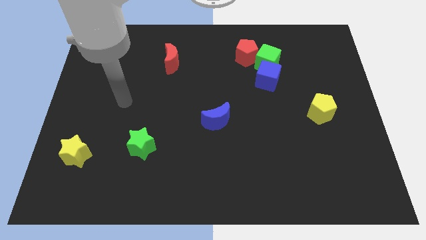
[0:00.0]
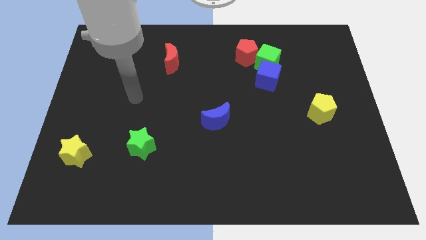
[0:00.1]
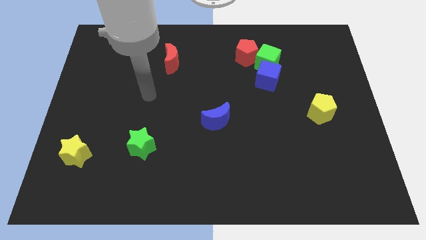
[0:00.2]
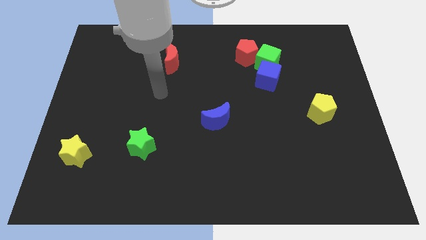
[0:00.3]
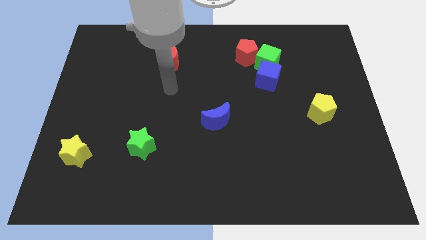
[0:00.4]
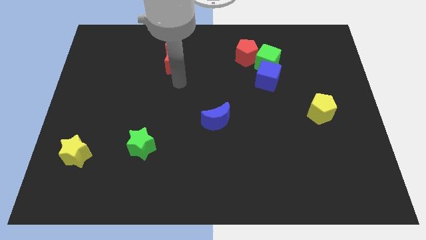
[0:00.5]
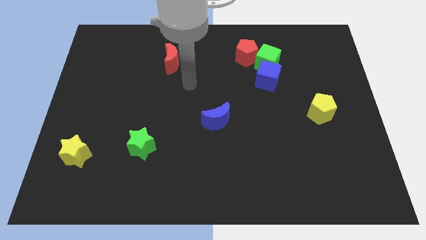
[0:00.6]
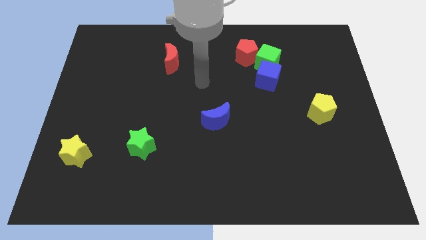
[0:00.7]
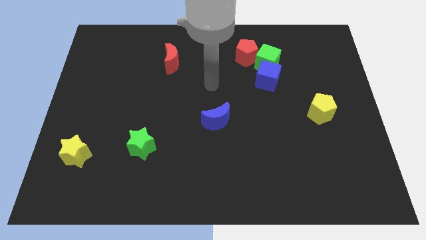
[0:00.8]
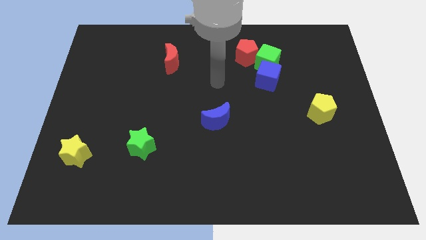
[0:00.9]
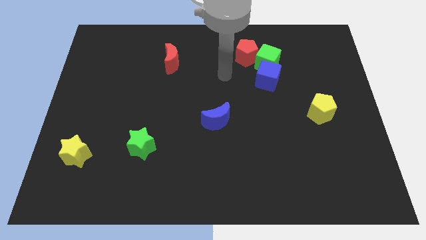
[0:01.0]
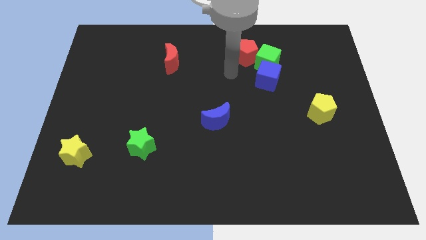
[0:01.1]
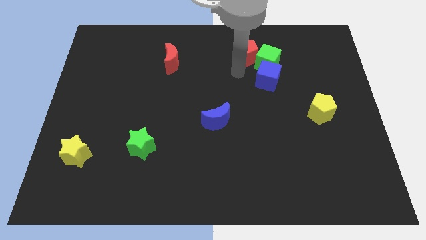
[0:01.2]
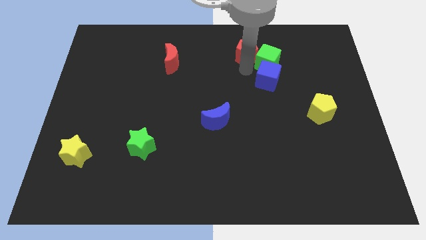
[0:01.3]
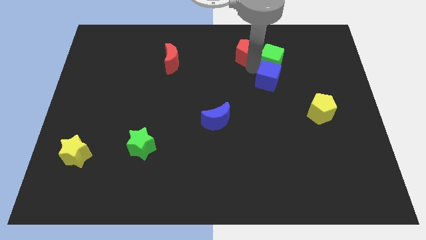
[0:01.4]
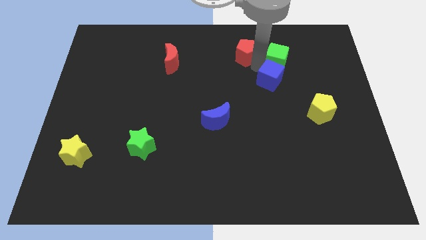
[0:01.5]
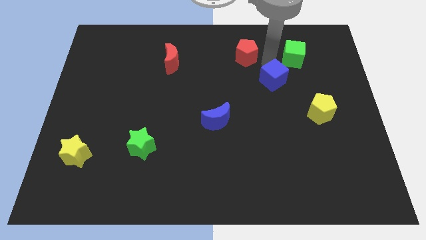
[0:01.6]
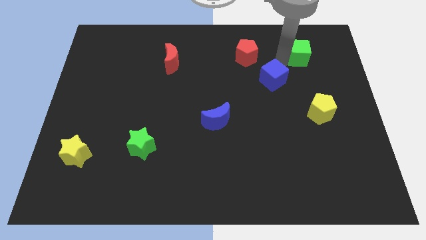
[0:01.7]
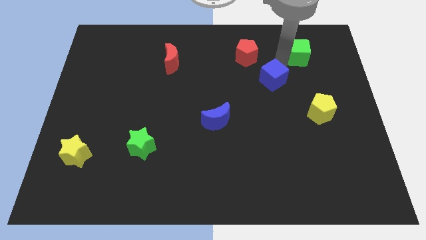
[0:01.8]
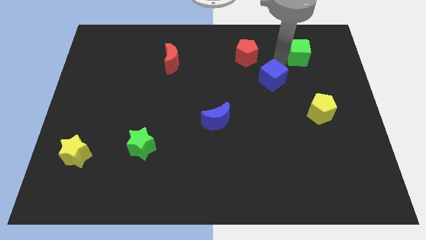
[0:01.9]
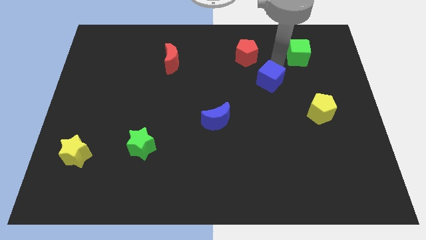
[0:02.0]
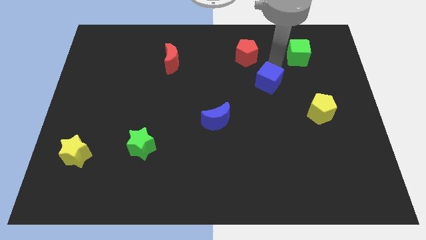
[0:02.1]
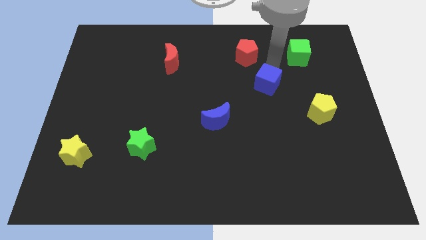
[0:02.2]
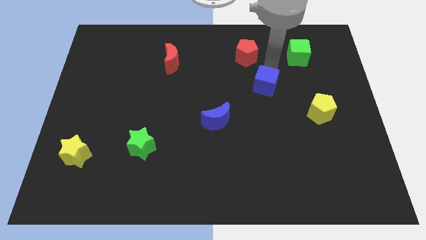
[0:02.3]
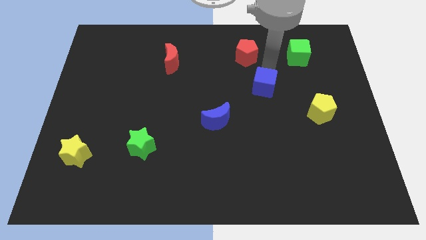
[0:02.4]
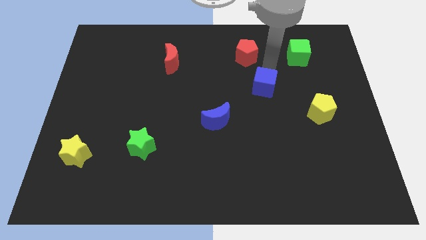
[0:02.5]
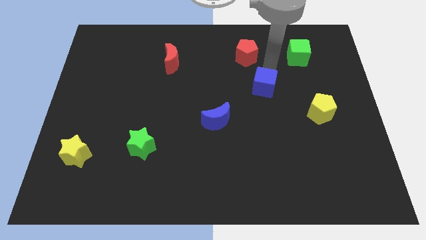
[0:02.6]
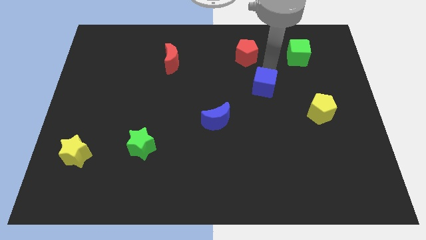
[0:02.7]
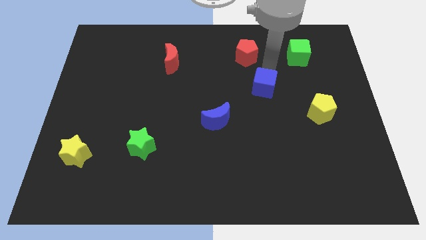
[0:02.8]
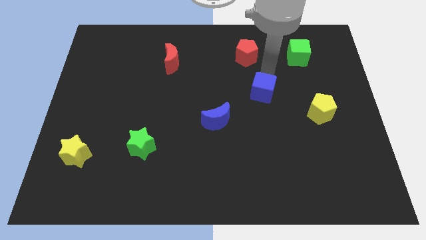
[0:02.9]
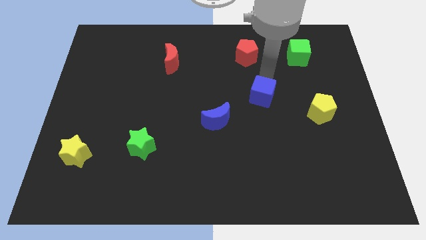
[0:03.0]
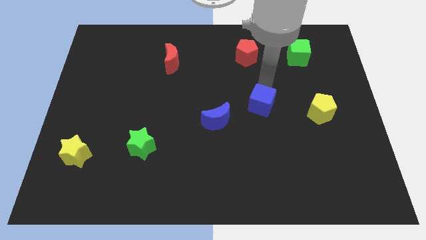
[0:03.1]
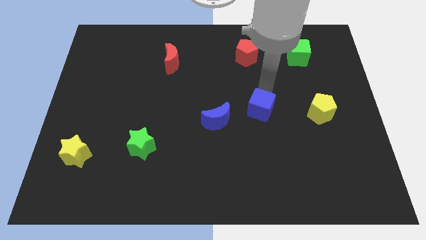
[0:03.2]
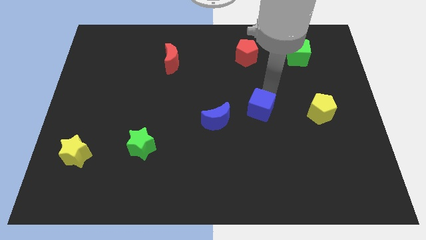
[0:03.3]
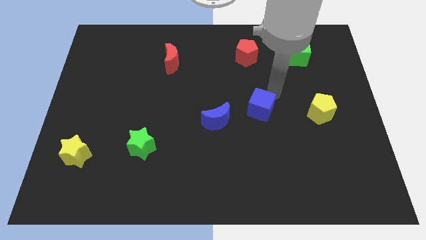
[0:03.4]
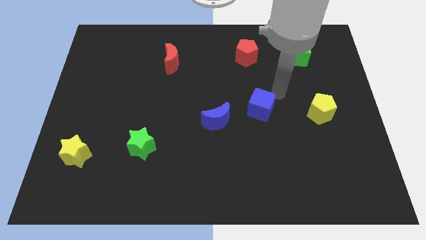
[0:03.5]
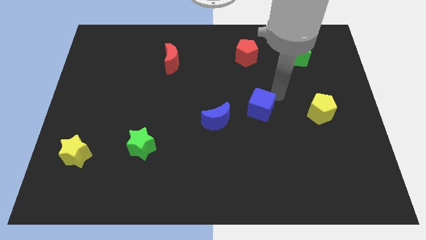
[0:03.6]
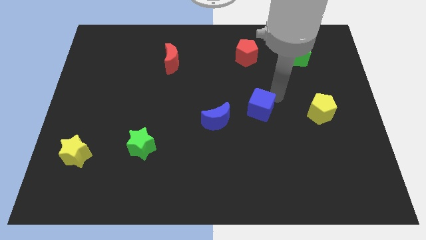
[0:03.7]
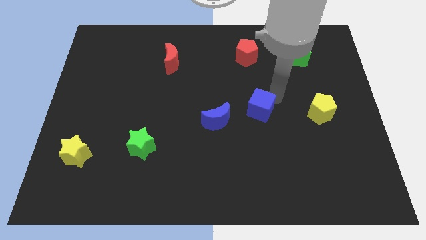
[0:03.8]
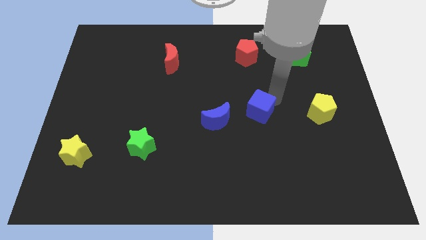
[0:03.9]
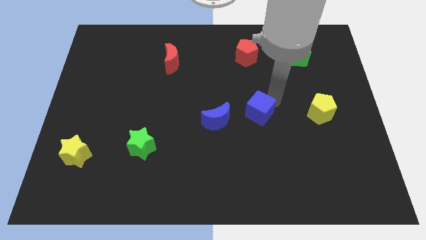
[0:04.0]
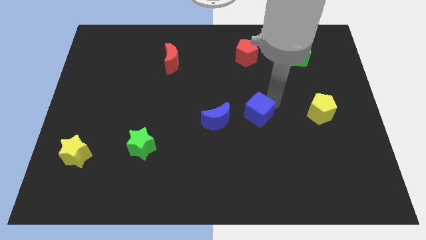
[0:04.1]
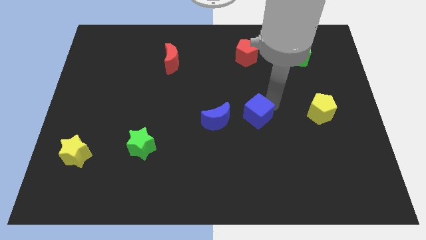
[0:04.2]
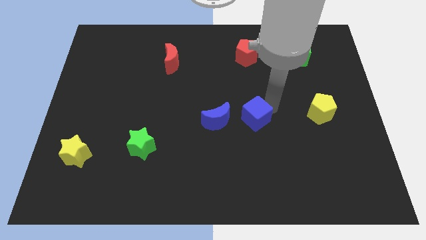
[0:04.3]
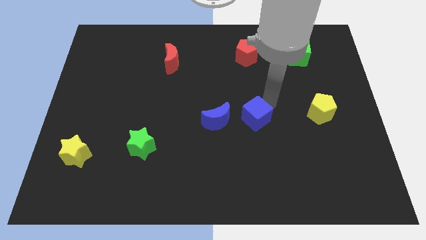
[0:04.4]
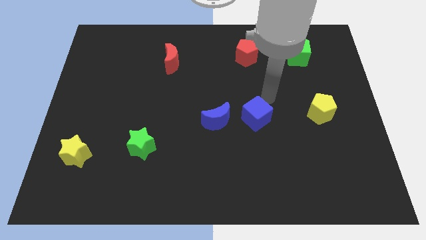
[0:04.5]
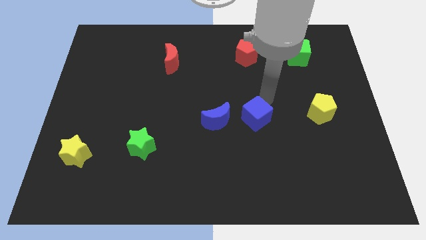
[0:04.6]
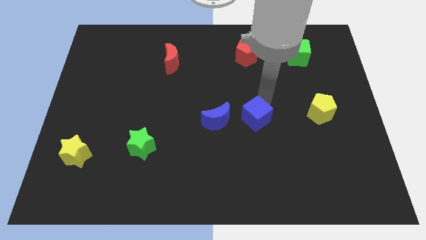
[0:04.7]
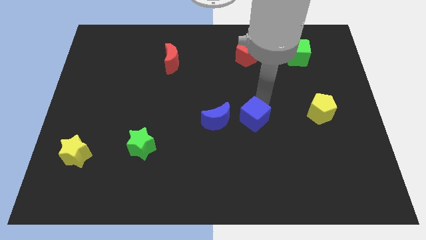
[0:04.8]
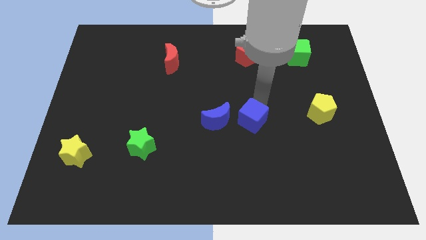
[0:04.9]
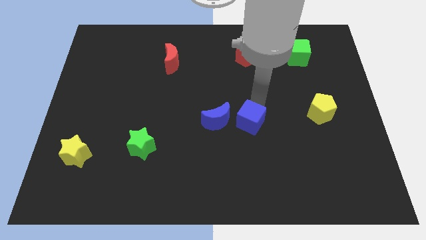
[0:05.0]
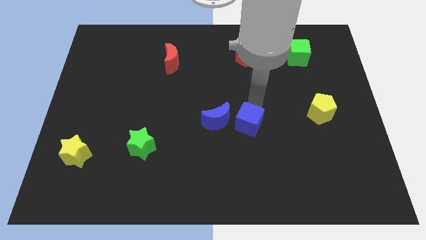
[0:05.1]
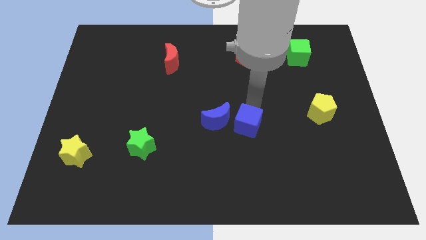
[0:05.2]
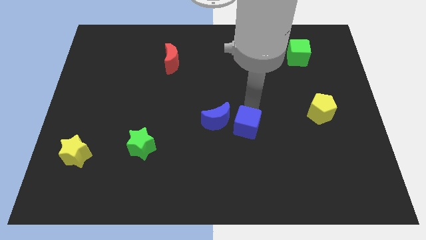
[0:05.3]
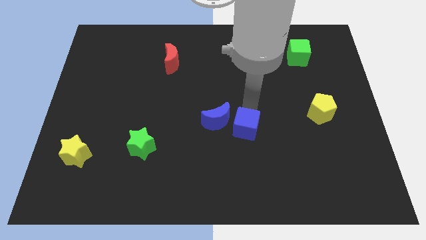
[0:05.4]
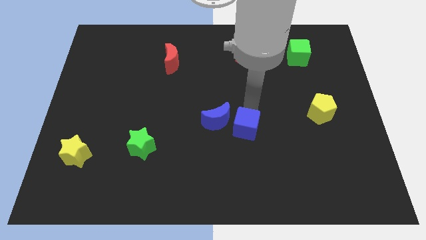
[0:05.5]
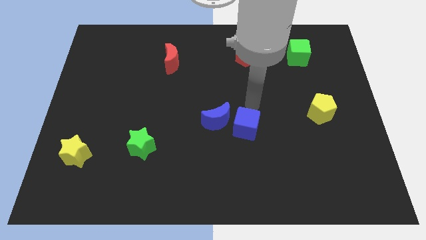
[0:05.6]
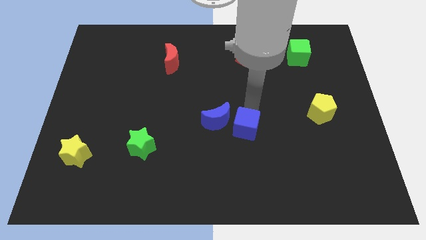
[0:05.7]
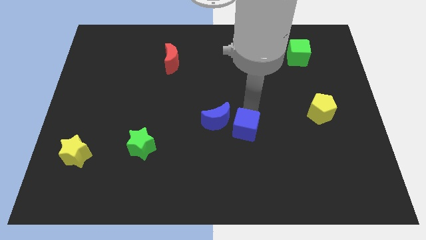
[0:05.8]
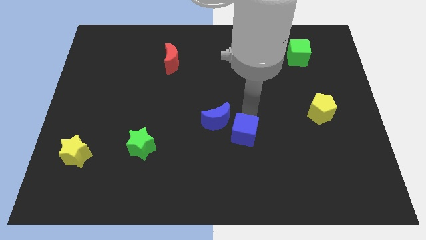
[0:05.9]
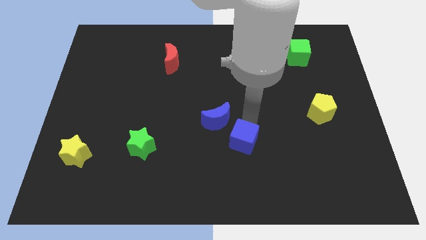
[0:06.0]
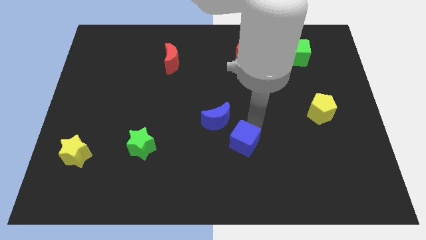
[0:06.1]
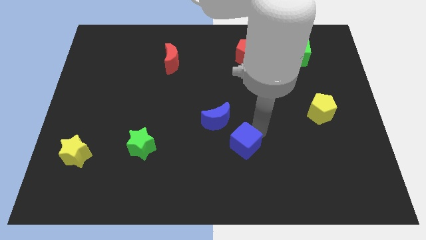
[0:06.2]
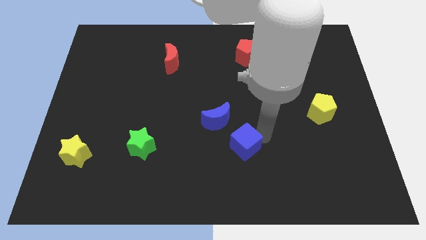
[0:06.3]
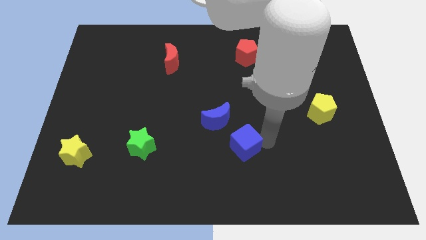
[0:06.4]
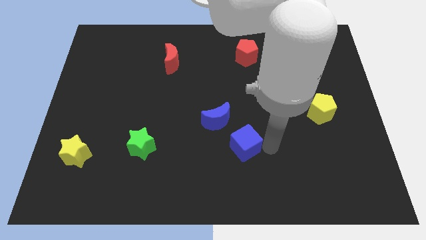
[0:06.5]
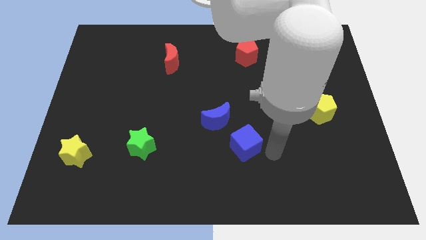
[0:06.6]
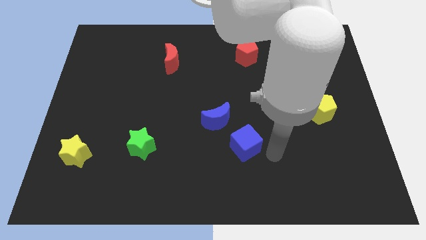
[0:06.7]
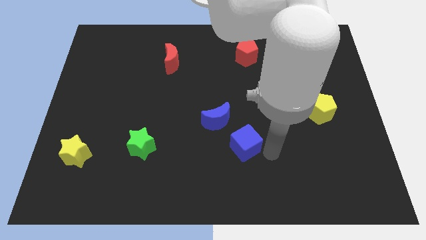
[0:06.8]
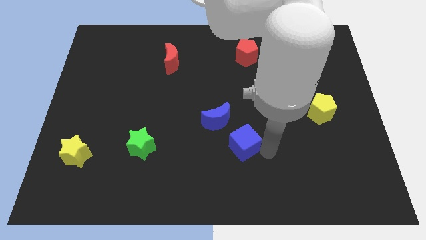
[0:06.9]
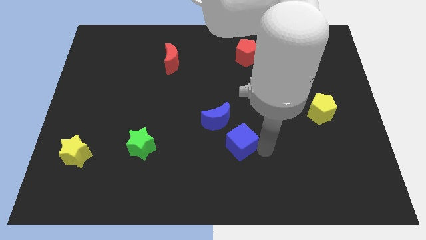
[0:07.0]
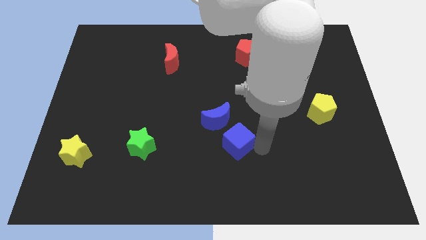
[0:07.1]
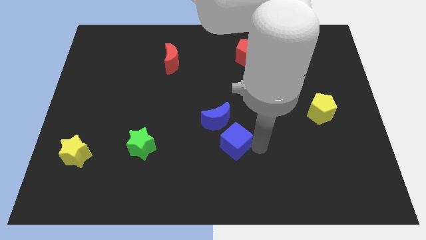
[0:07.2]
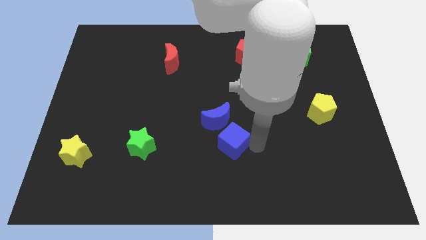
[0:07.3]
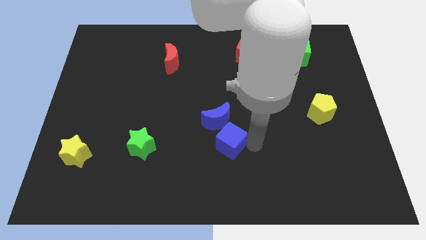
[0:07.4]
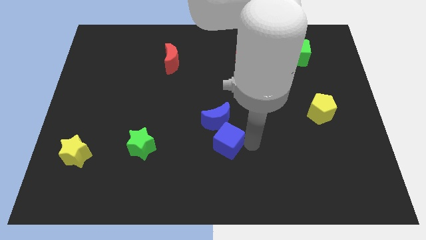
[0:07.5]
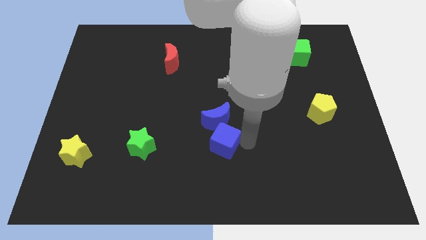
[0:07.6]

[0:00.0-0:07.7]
slide the blue cube downwards and left
